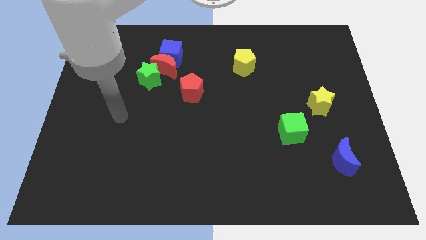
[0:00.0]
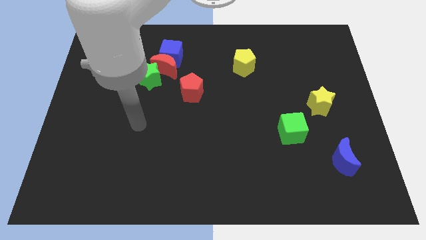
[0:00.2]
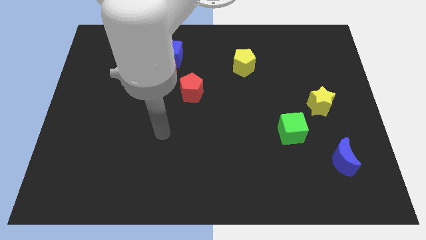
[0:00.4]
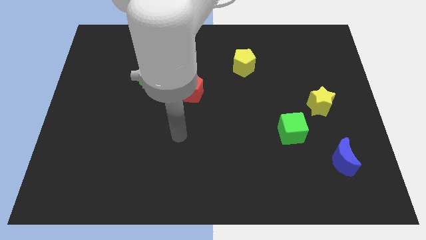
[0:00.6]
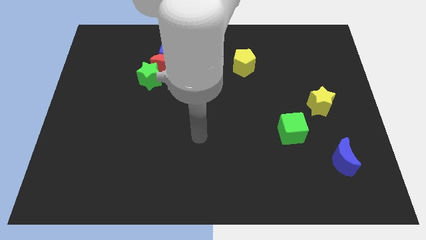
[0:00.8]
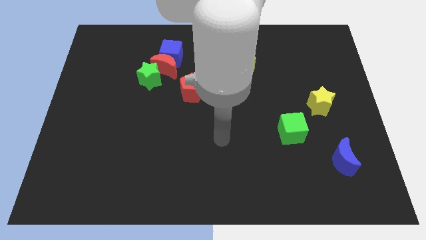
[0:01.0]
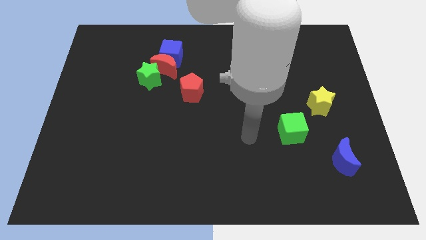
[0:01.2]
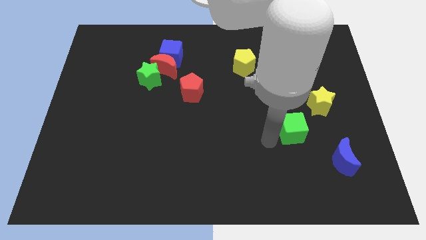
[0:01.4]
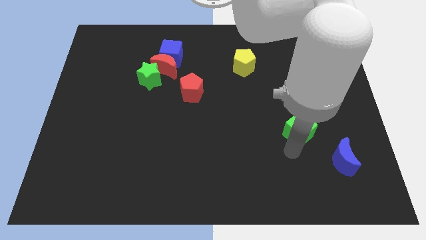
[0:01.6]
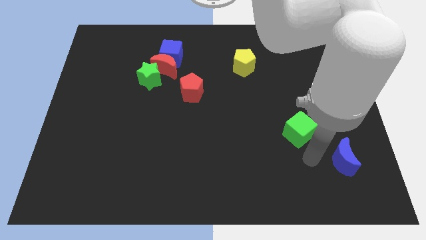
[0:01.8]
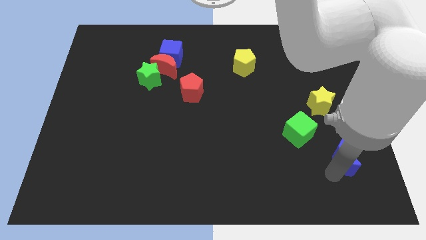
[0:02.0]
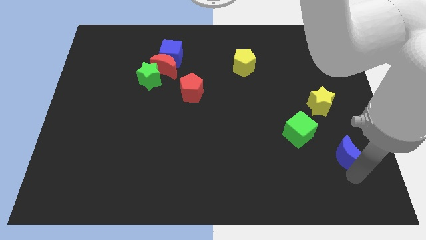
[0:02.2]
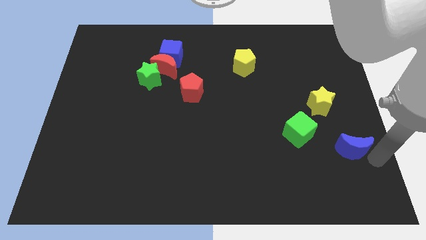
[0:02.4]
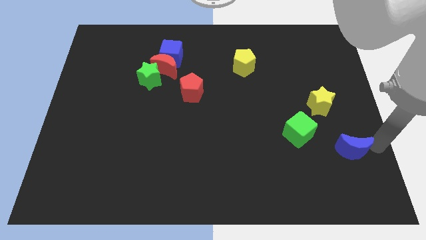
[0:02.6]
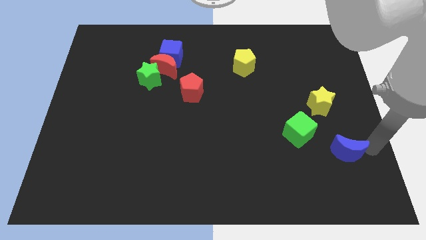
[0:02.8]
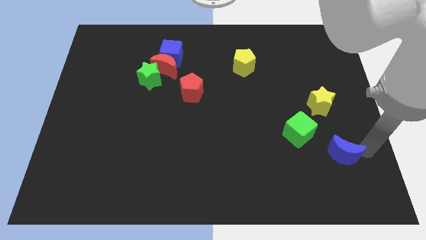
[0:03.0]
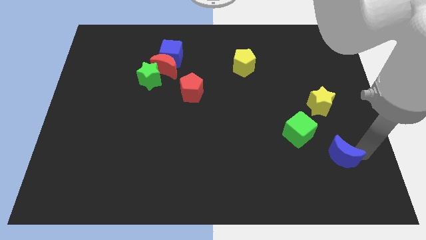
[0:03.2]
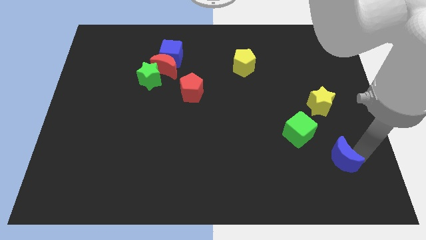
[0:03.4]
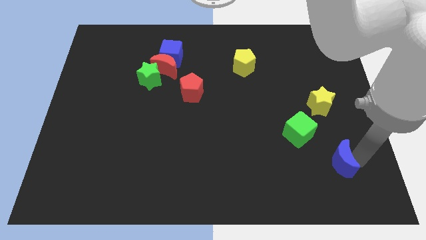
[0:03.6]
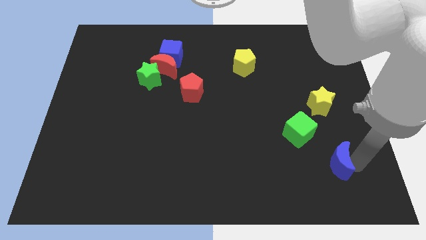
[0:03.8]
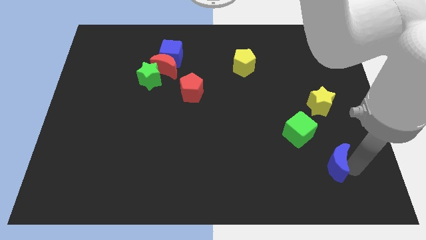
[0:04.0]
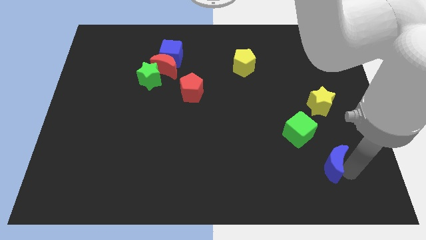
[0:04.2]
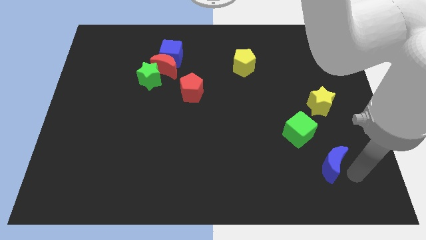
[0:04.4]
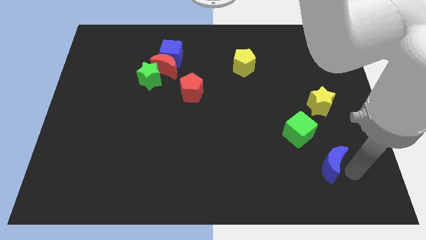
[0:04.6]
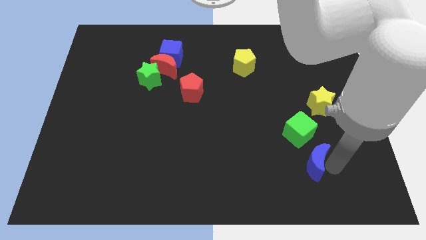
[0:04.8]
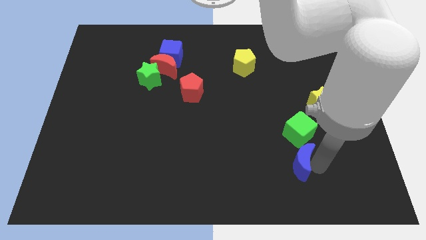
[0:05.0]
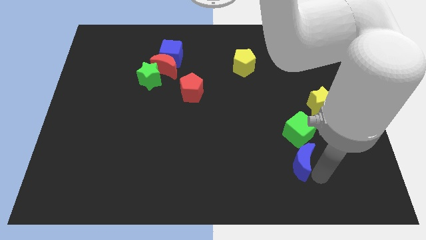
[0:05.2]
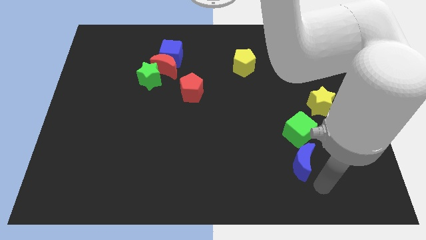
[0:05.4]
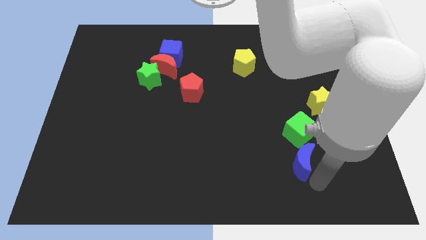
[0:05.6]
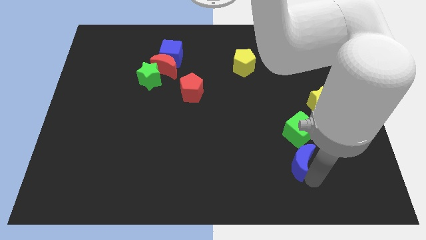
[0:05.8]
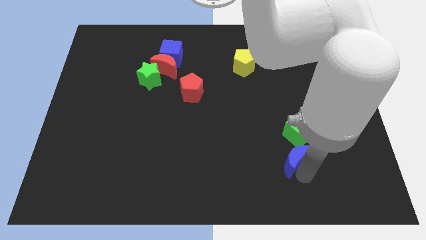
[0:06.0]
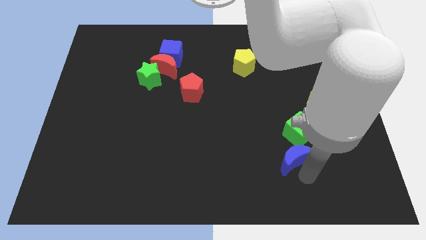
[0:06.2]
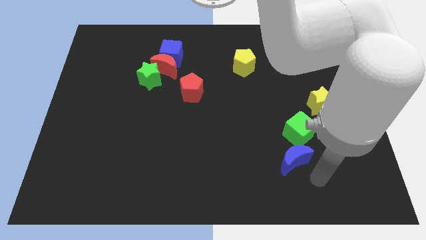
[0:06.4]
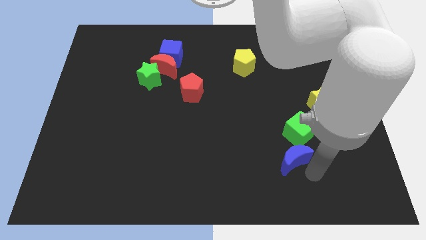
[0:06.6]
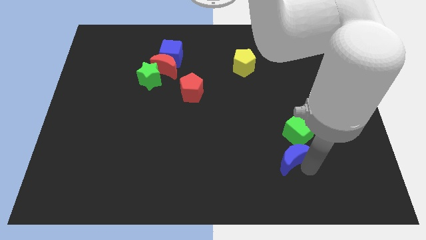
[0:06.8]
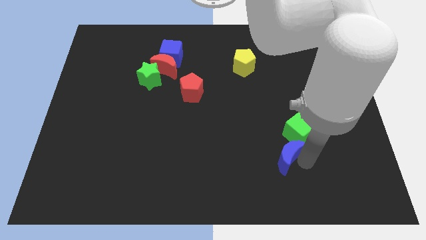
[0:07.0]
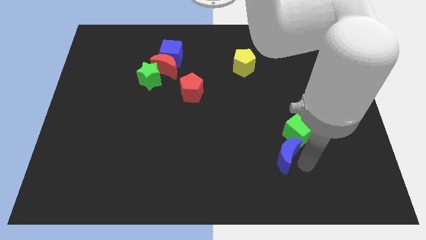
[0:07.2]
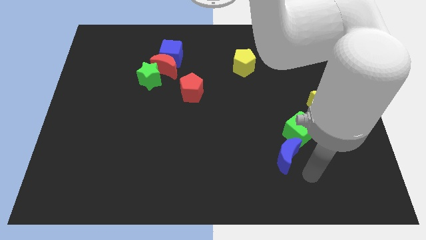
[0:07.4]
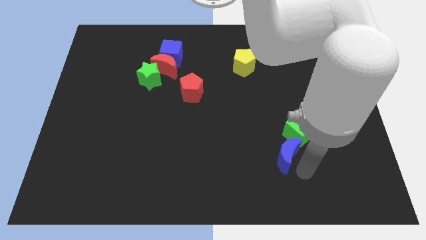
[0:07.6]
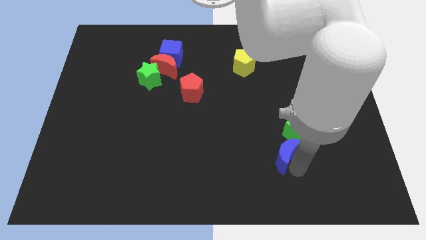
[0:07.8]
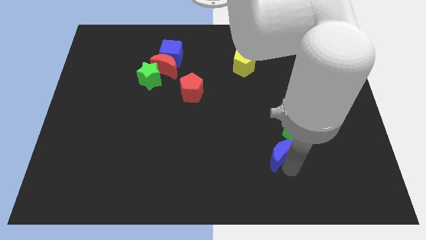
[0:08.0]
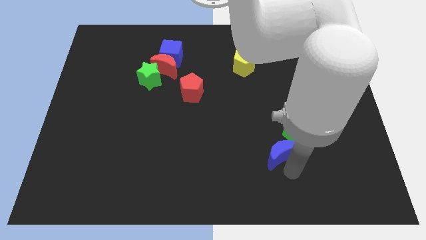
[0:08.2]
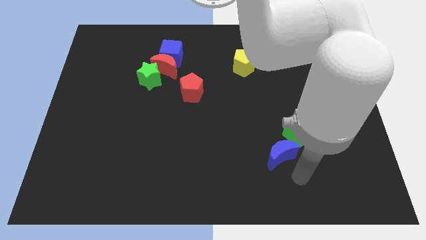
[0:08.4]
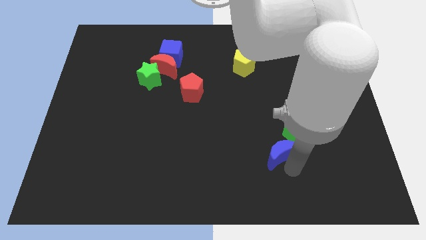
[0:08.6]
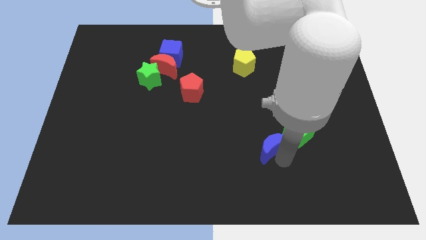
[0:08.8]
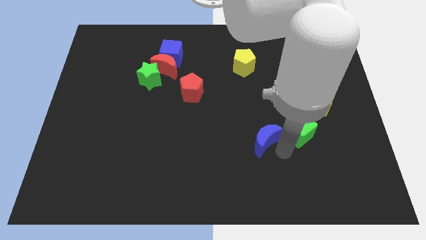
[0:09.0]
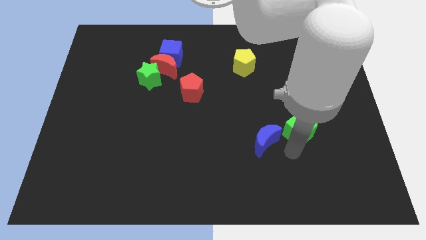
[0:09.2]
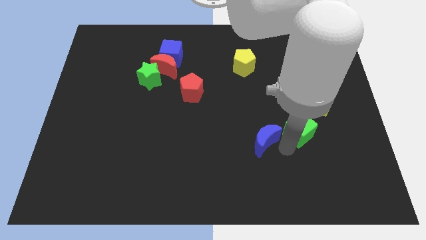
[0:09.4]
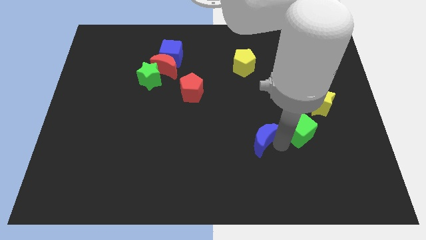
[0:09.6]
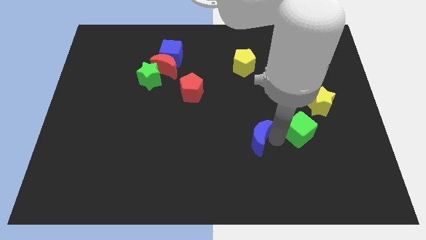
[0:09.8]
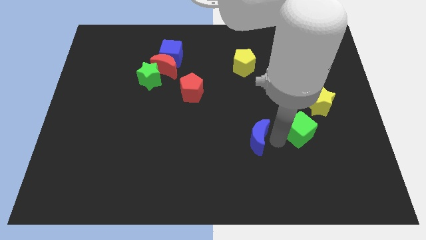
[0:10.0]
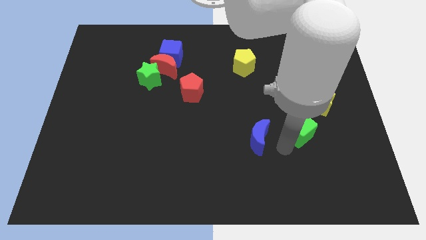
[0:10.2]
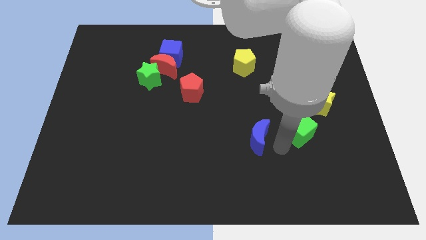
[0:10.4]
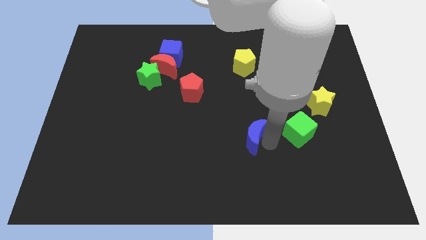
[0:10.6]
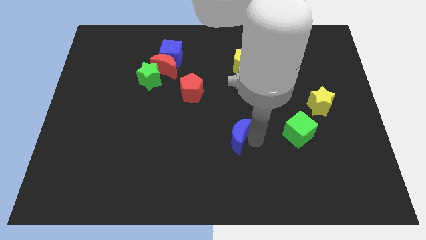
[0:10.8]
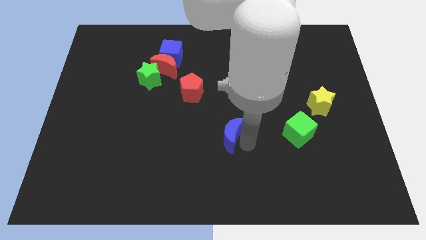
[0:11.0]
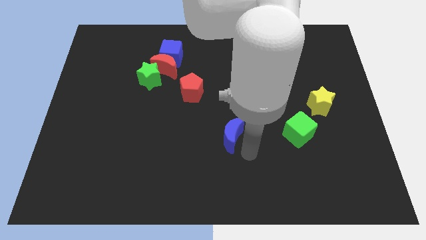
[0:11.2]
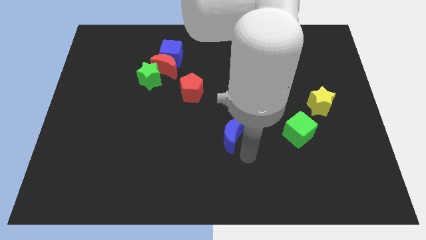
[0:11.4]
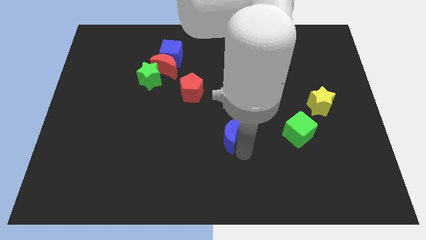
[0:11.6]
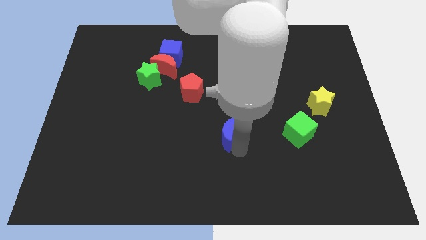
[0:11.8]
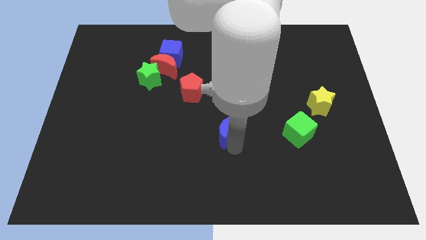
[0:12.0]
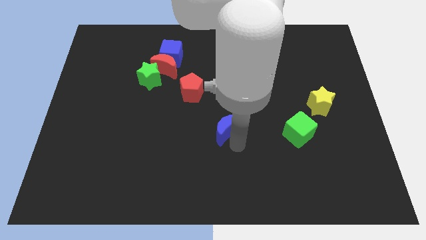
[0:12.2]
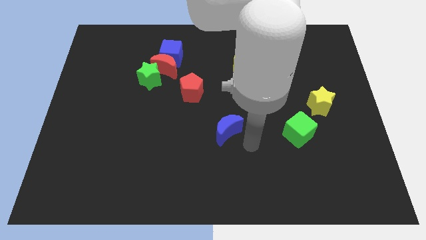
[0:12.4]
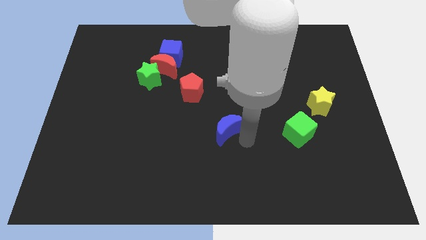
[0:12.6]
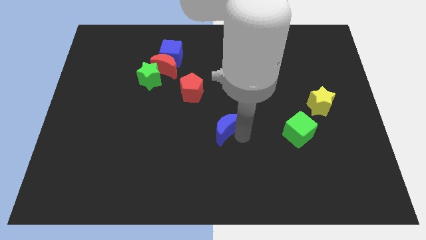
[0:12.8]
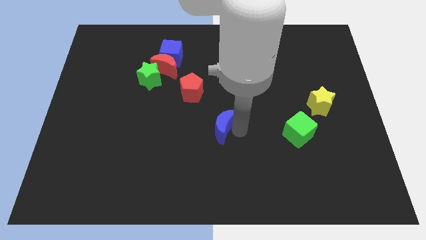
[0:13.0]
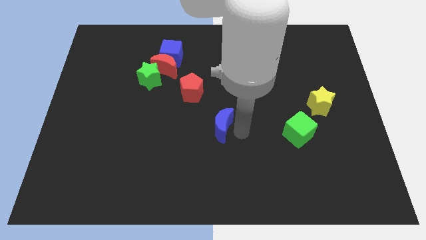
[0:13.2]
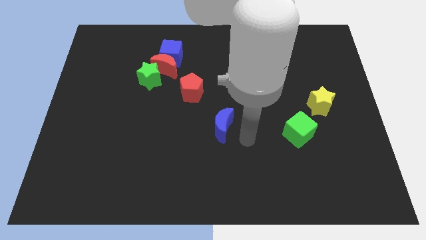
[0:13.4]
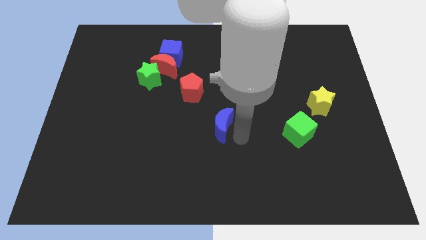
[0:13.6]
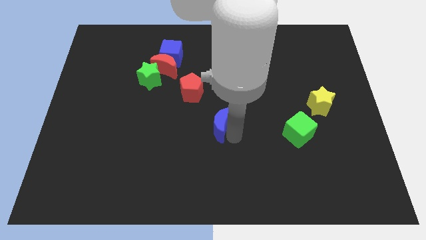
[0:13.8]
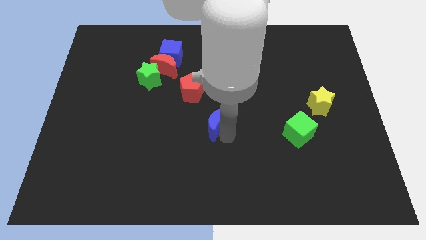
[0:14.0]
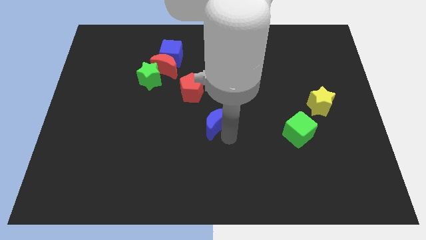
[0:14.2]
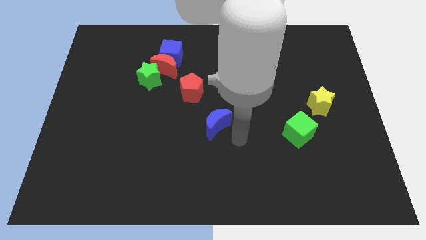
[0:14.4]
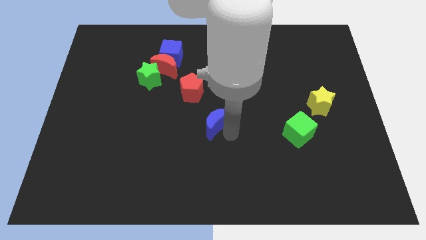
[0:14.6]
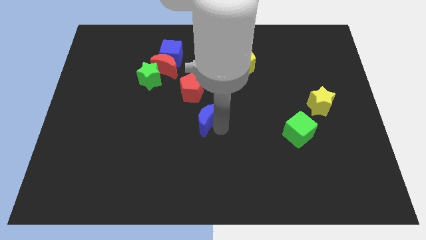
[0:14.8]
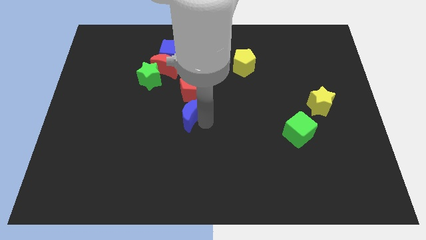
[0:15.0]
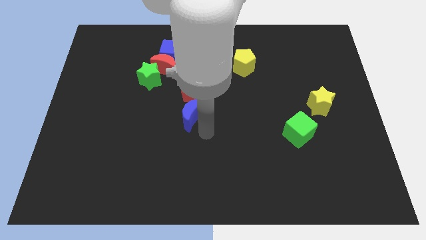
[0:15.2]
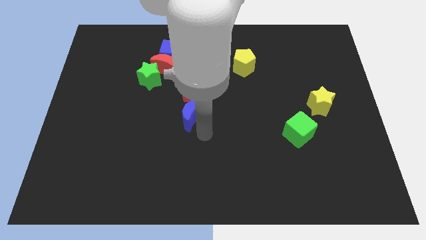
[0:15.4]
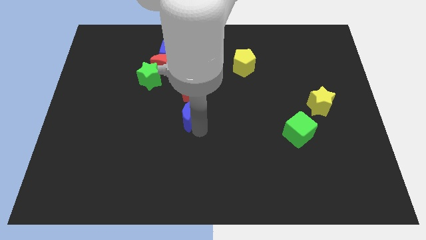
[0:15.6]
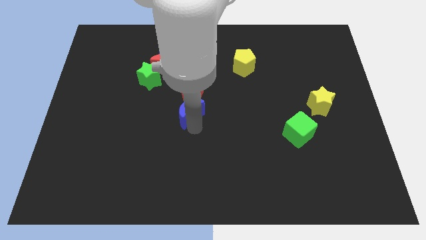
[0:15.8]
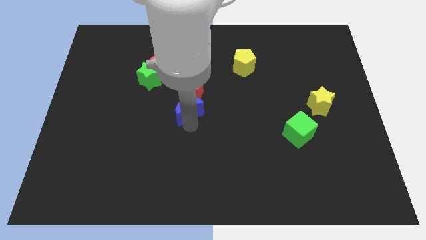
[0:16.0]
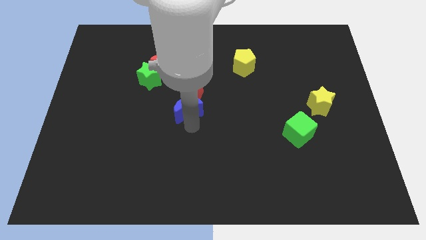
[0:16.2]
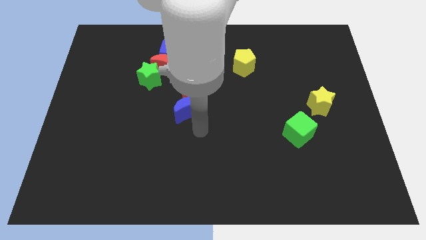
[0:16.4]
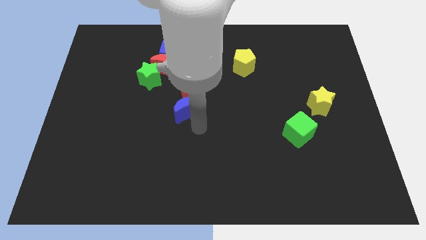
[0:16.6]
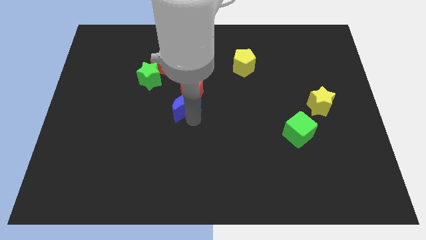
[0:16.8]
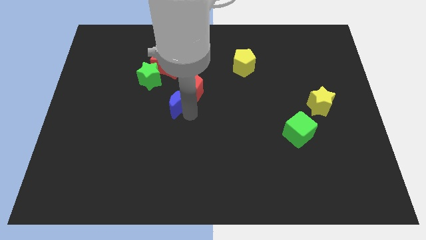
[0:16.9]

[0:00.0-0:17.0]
push the blue moon diagonally down and to the right of the green star
